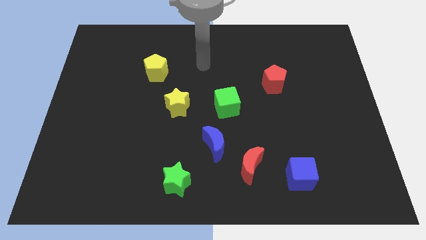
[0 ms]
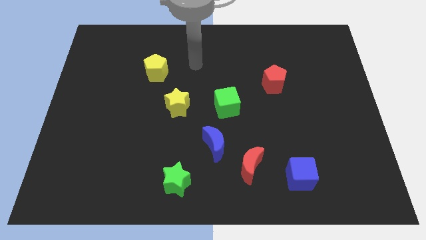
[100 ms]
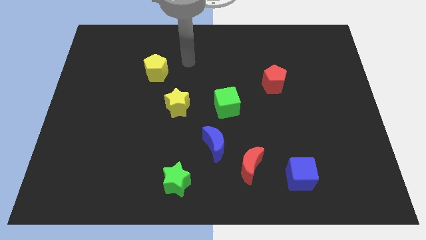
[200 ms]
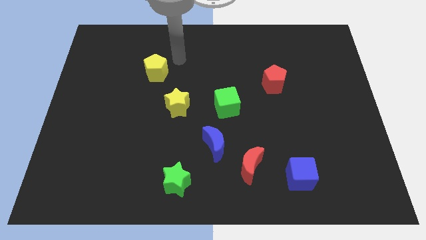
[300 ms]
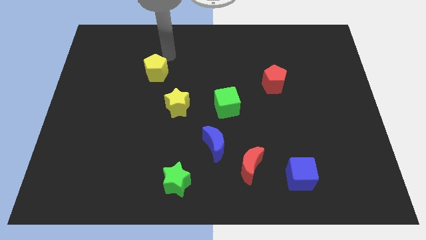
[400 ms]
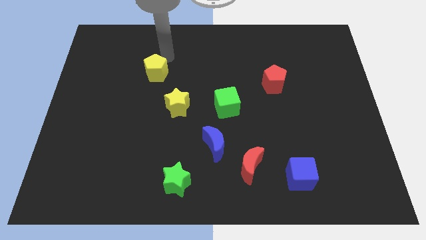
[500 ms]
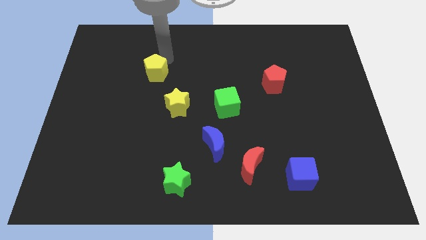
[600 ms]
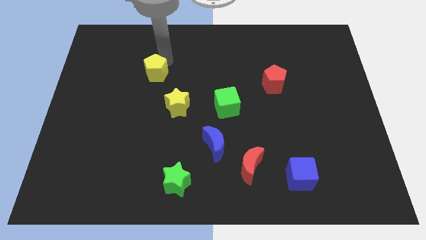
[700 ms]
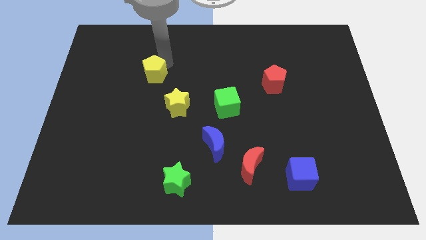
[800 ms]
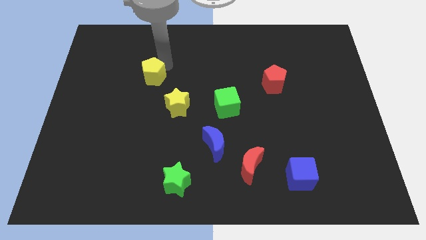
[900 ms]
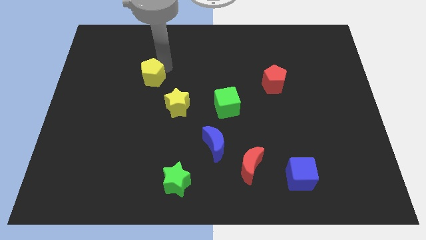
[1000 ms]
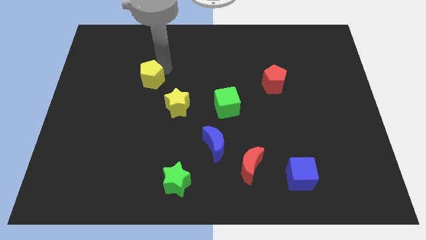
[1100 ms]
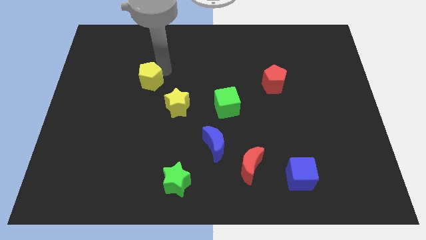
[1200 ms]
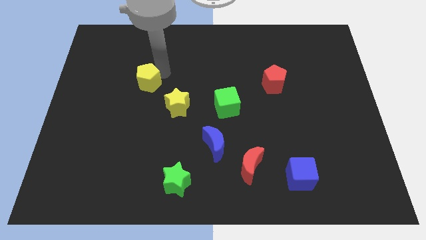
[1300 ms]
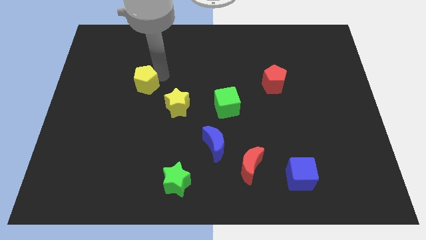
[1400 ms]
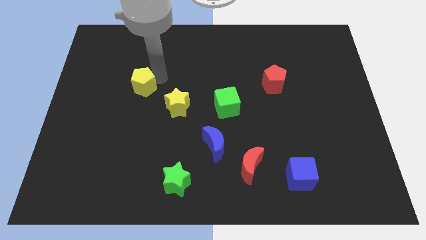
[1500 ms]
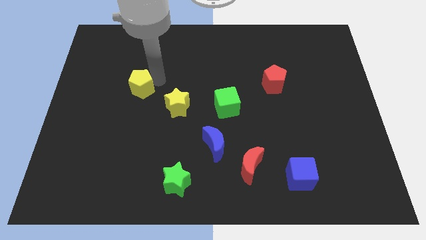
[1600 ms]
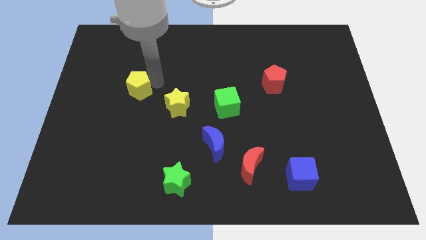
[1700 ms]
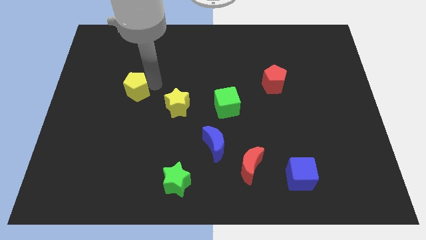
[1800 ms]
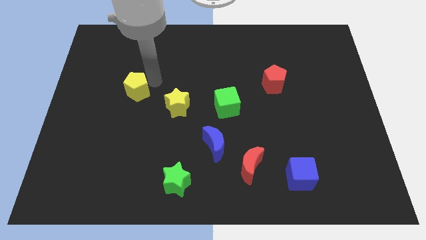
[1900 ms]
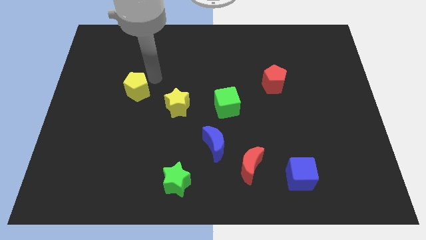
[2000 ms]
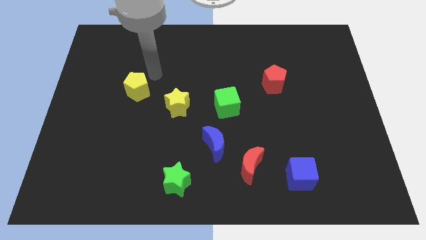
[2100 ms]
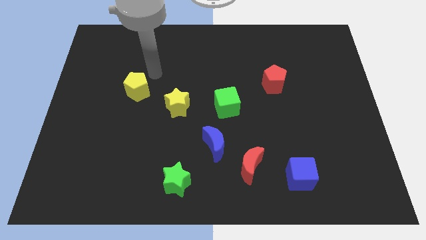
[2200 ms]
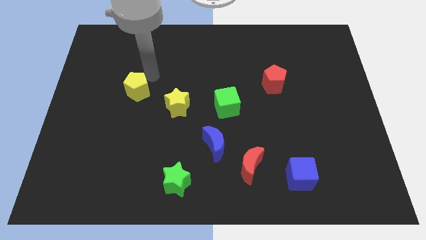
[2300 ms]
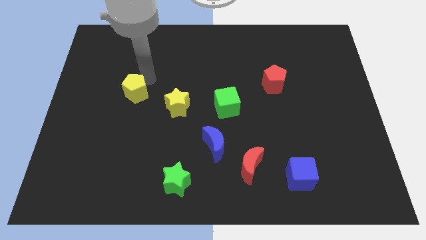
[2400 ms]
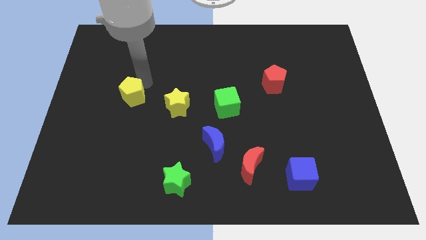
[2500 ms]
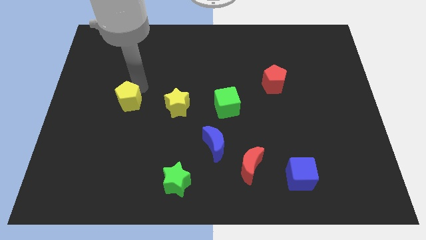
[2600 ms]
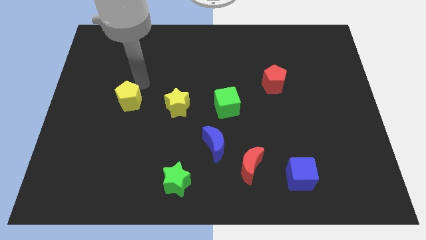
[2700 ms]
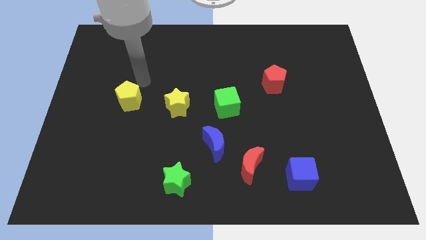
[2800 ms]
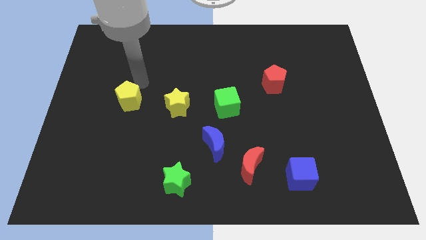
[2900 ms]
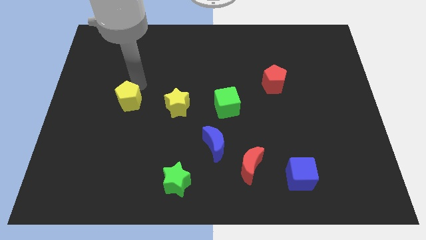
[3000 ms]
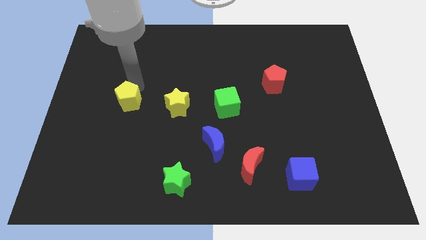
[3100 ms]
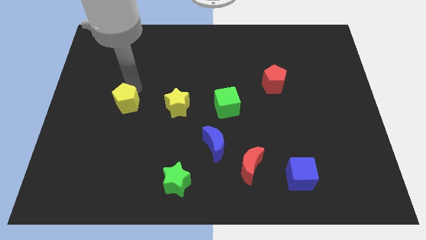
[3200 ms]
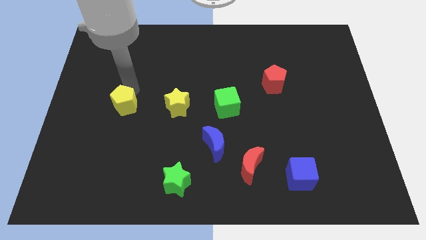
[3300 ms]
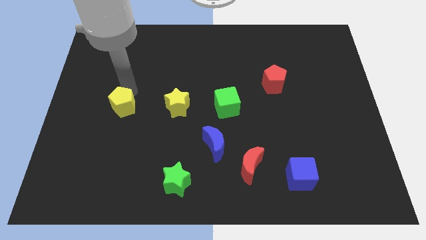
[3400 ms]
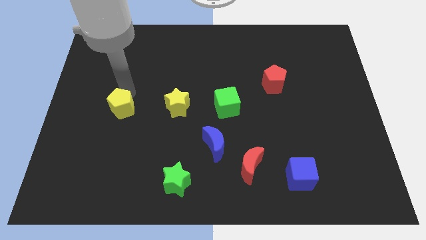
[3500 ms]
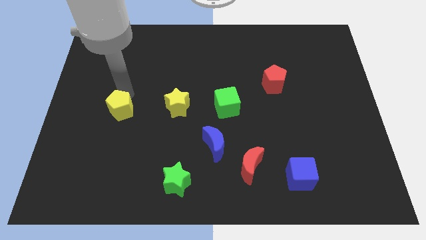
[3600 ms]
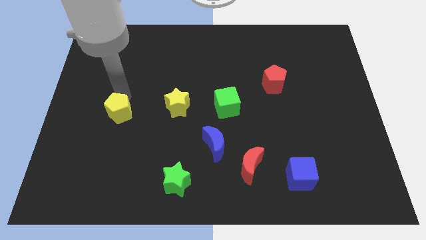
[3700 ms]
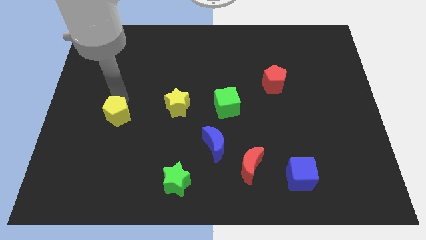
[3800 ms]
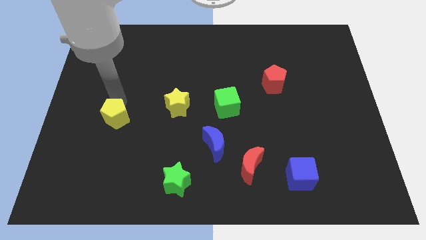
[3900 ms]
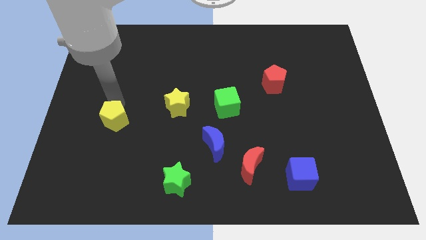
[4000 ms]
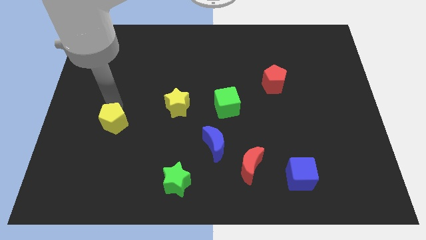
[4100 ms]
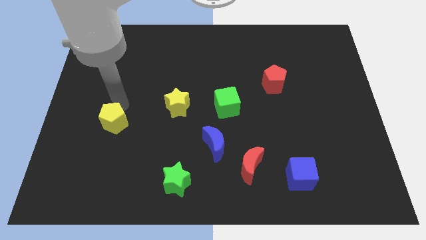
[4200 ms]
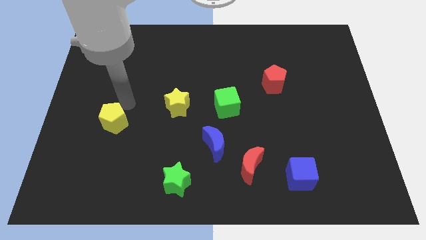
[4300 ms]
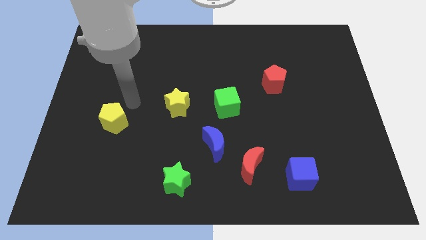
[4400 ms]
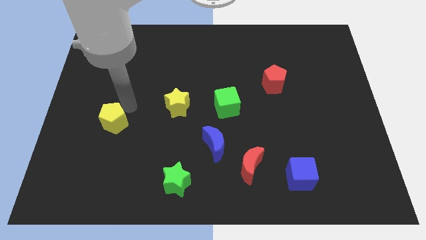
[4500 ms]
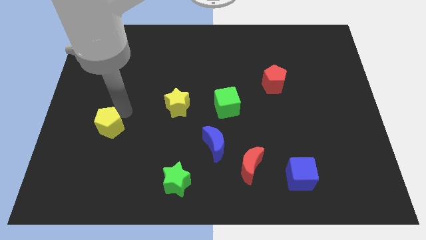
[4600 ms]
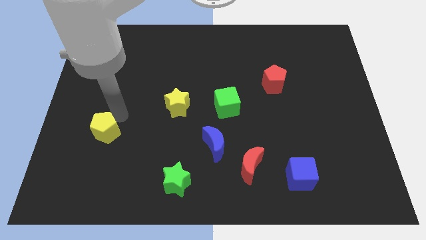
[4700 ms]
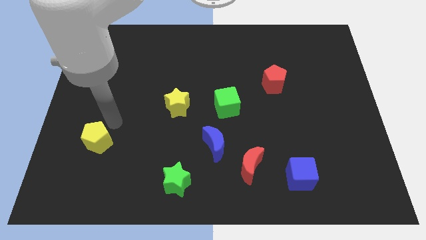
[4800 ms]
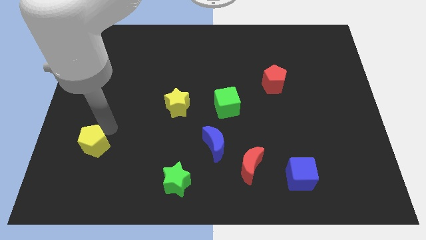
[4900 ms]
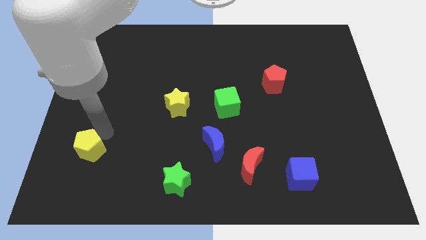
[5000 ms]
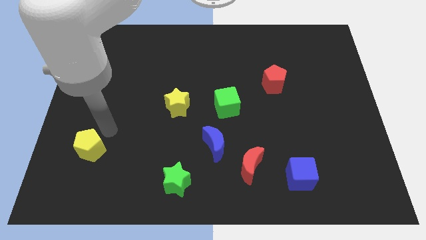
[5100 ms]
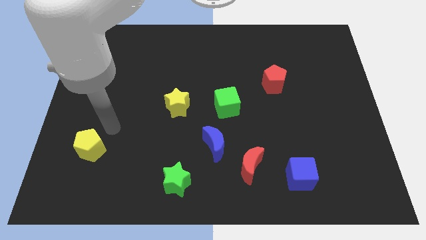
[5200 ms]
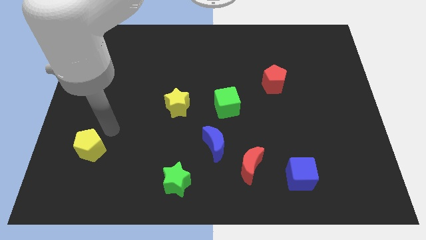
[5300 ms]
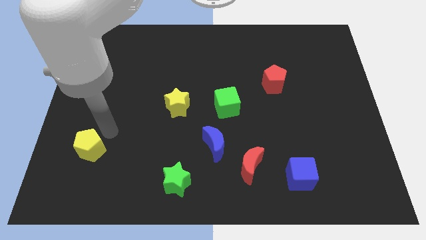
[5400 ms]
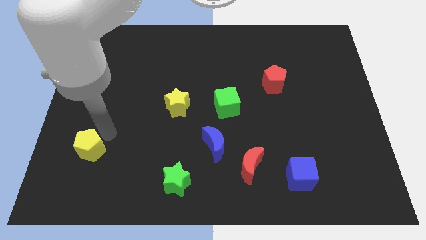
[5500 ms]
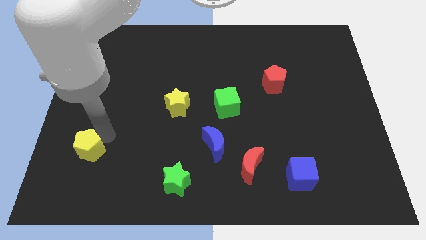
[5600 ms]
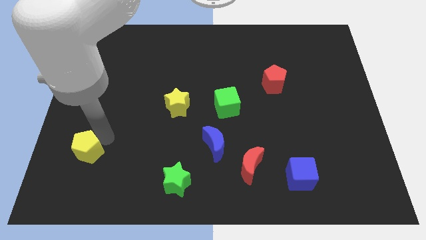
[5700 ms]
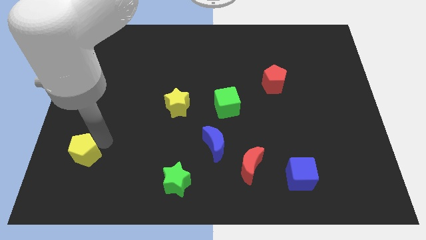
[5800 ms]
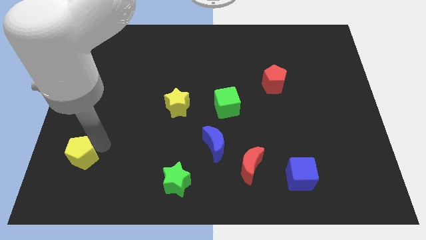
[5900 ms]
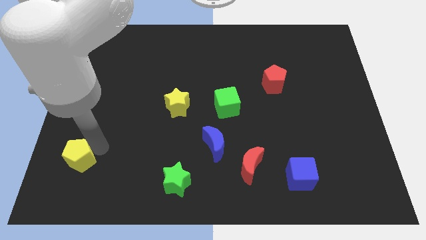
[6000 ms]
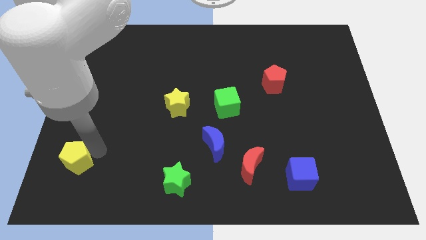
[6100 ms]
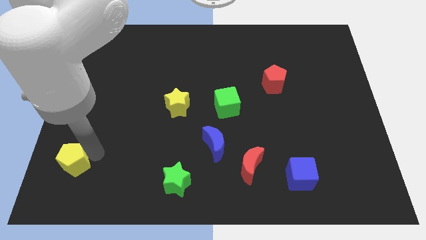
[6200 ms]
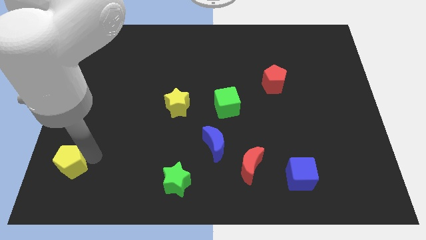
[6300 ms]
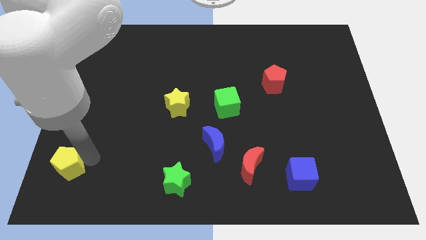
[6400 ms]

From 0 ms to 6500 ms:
put the yellow pentagon to the lower left corner

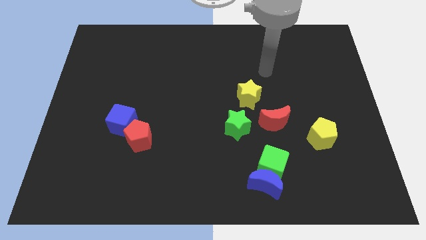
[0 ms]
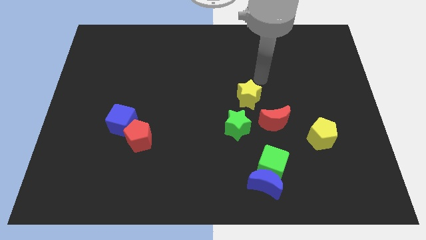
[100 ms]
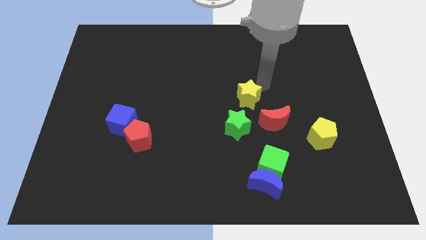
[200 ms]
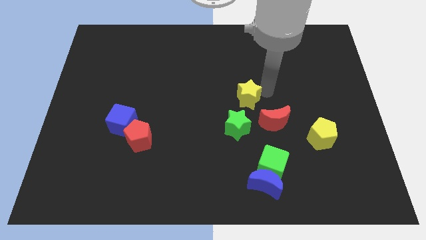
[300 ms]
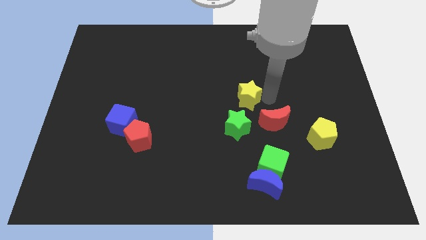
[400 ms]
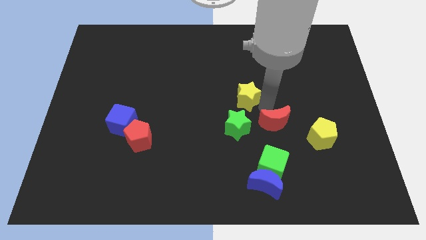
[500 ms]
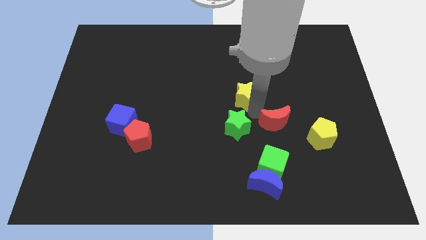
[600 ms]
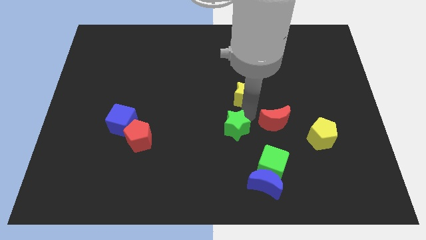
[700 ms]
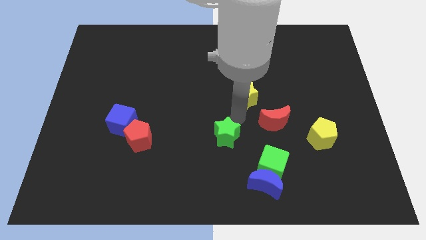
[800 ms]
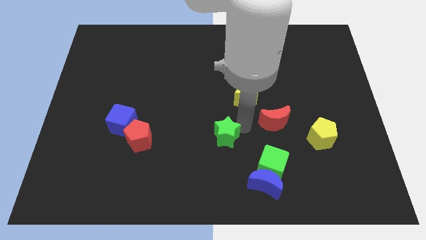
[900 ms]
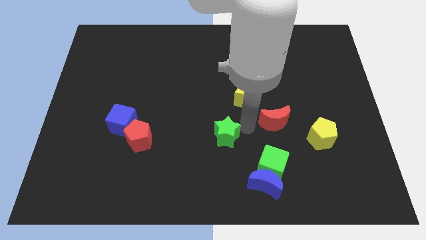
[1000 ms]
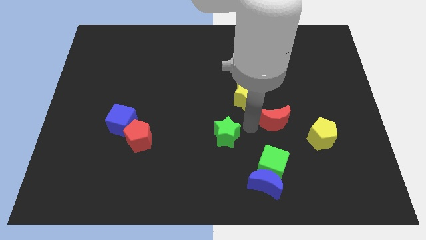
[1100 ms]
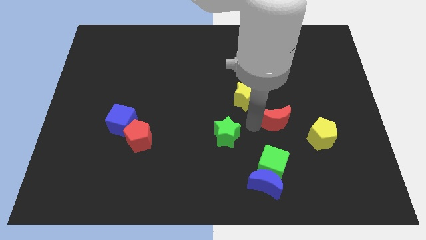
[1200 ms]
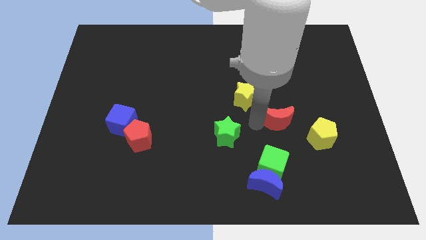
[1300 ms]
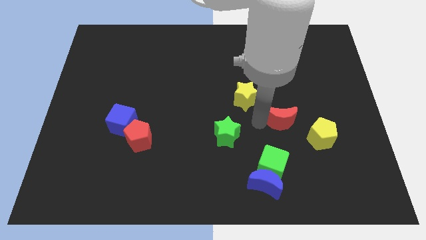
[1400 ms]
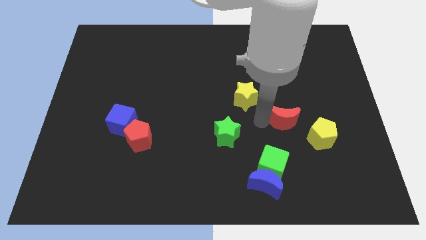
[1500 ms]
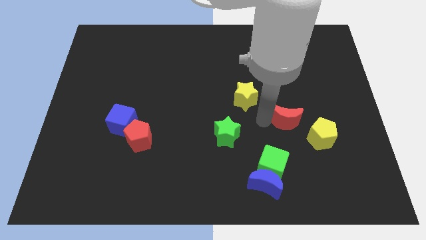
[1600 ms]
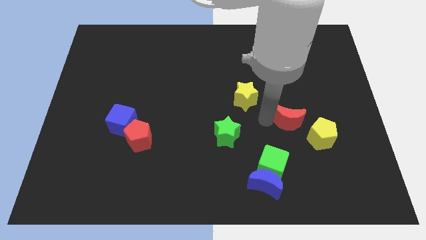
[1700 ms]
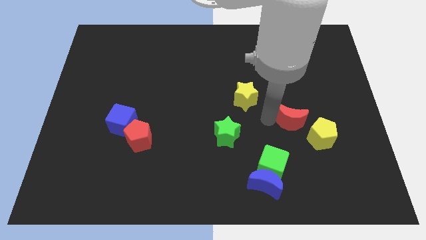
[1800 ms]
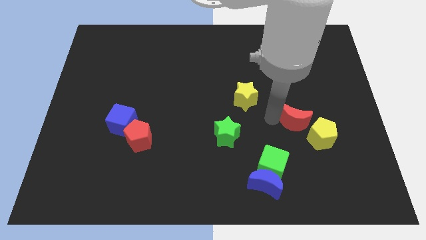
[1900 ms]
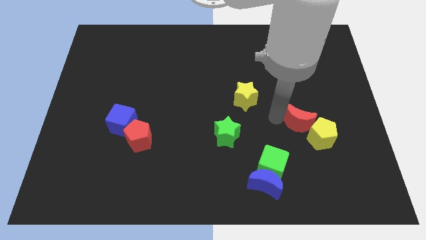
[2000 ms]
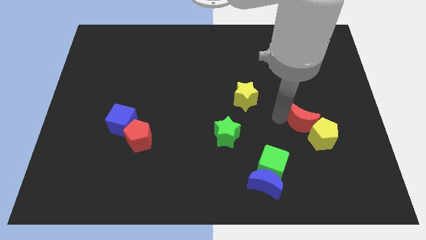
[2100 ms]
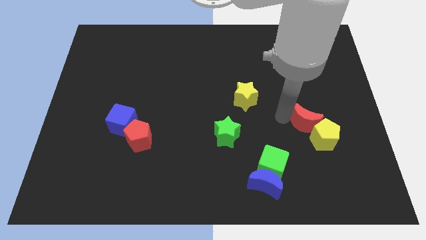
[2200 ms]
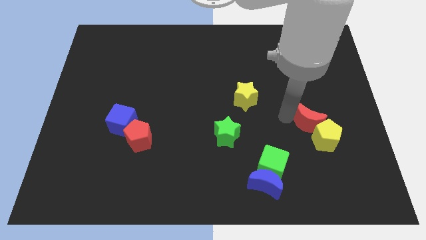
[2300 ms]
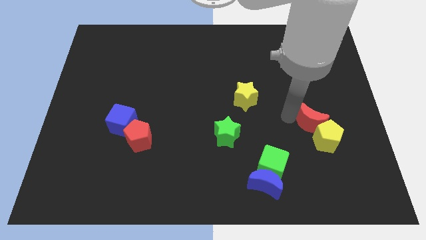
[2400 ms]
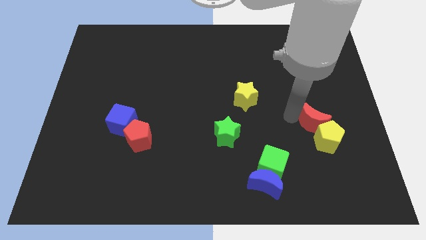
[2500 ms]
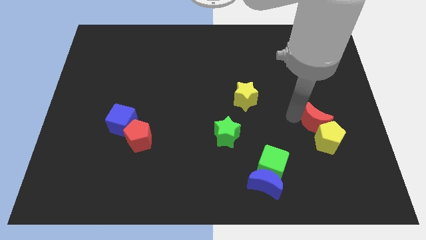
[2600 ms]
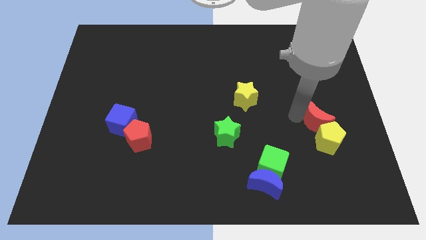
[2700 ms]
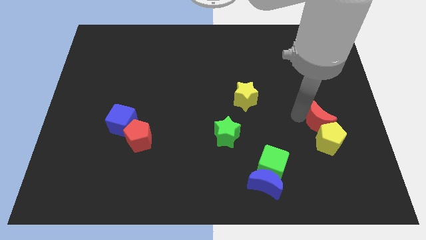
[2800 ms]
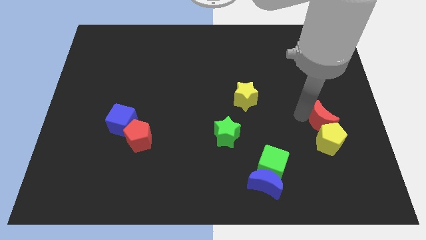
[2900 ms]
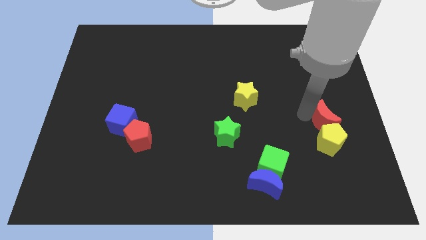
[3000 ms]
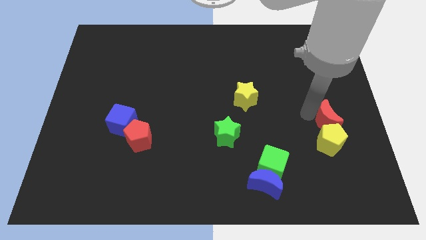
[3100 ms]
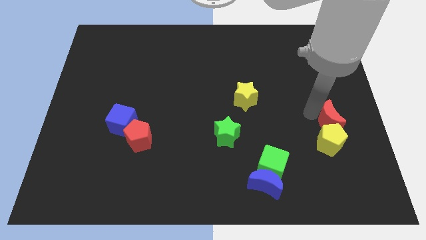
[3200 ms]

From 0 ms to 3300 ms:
push the red moon to the center right
